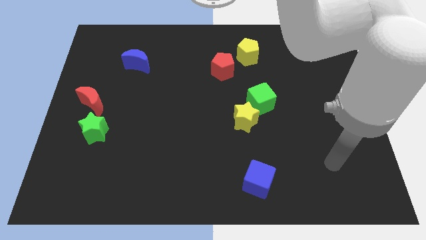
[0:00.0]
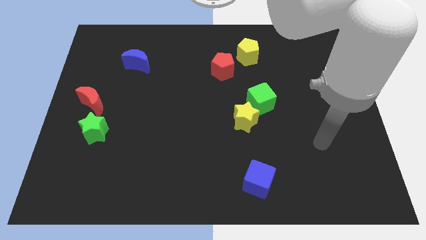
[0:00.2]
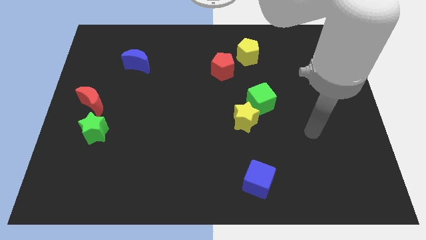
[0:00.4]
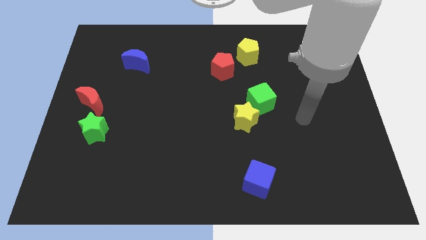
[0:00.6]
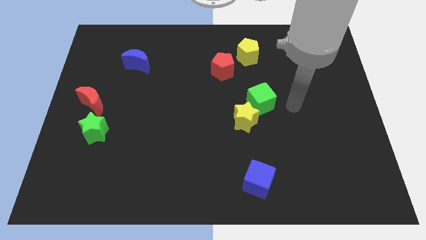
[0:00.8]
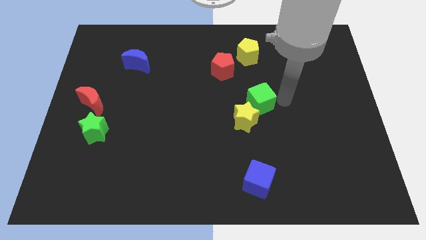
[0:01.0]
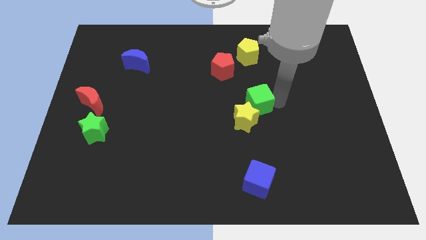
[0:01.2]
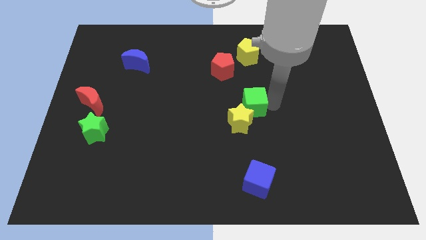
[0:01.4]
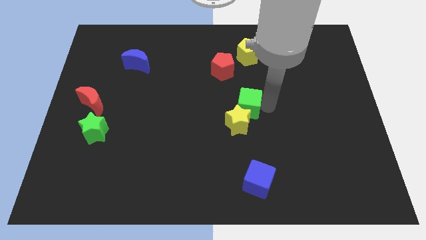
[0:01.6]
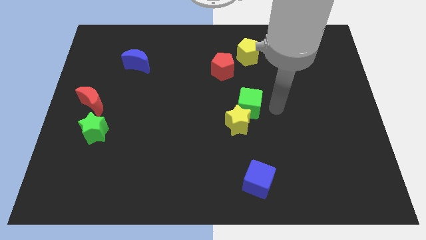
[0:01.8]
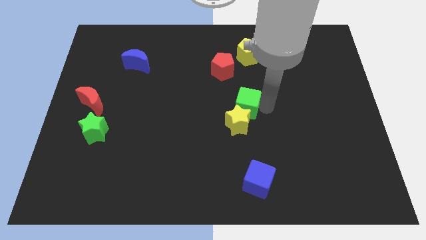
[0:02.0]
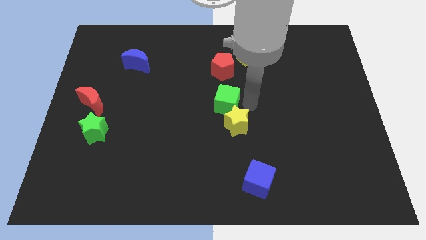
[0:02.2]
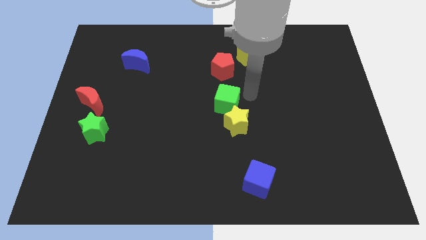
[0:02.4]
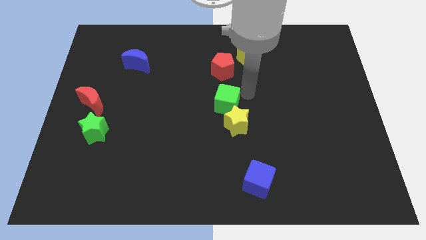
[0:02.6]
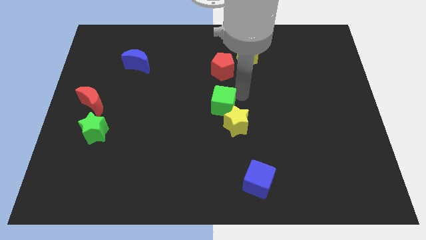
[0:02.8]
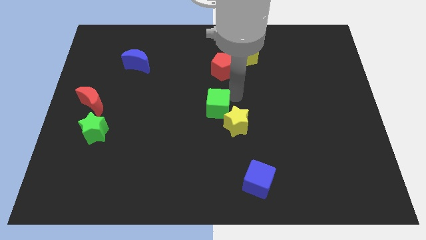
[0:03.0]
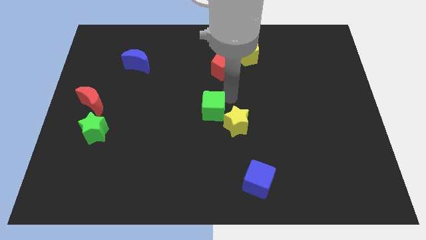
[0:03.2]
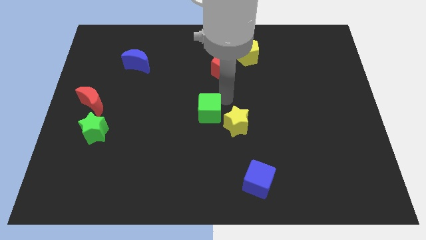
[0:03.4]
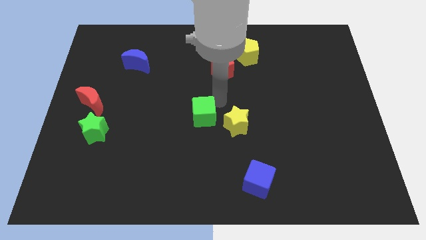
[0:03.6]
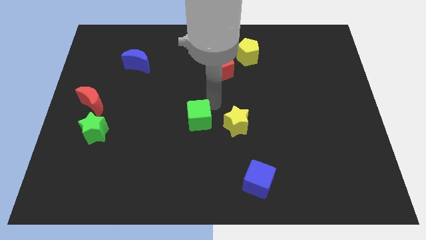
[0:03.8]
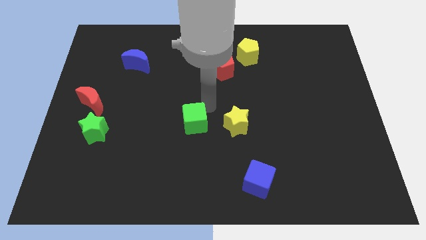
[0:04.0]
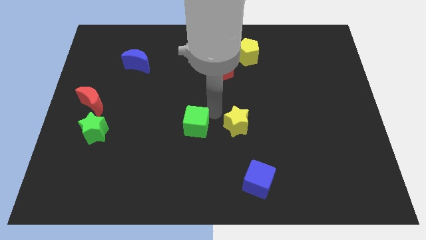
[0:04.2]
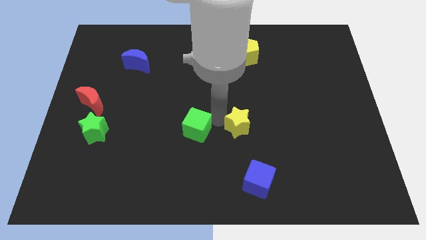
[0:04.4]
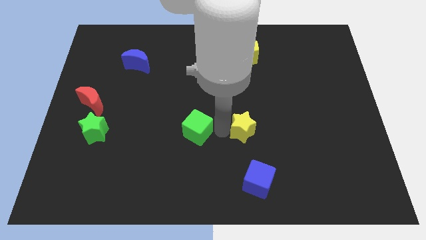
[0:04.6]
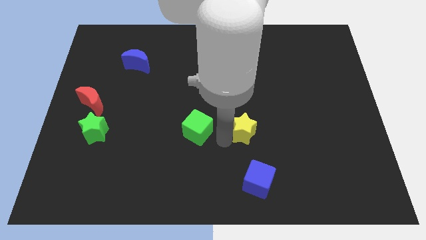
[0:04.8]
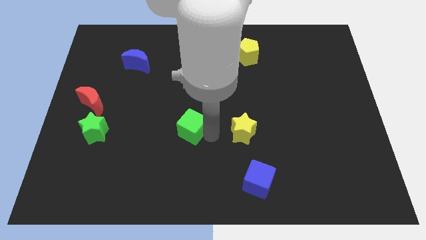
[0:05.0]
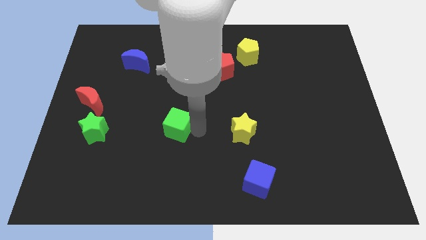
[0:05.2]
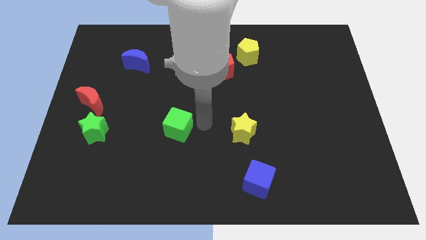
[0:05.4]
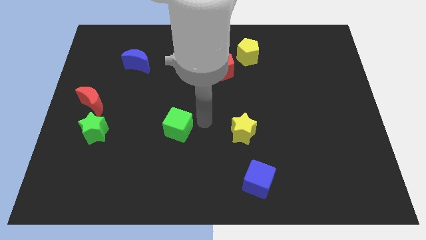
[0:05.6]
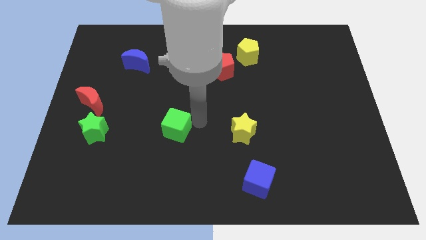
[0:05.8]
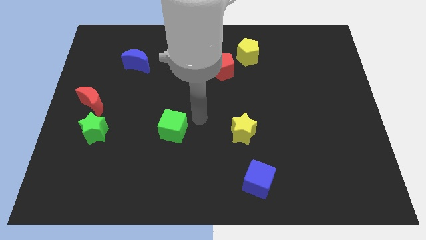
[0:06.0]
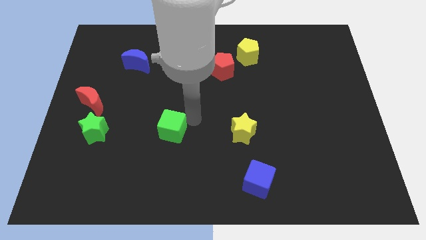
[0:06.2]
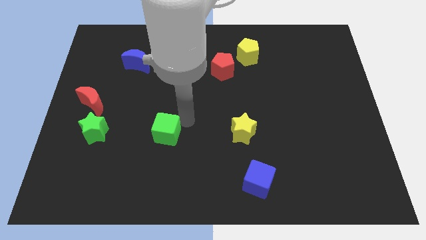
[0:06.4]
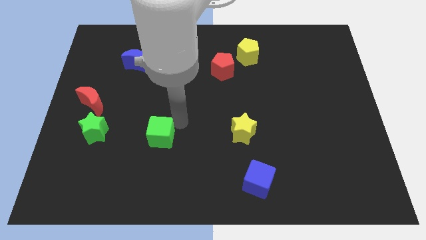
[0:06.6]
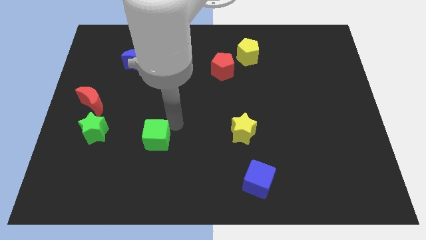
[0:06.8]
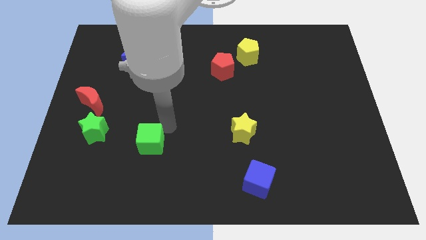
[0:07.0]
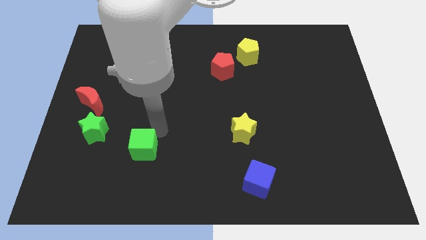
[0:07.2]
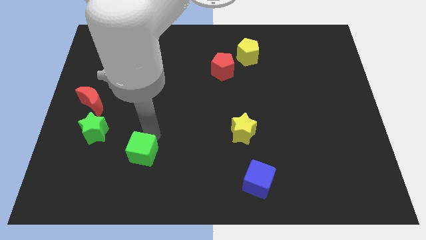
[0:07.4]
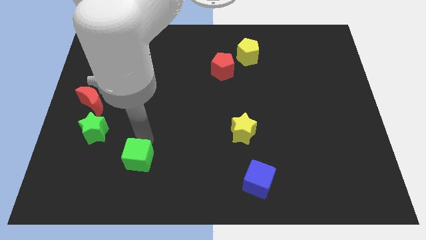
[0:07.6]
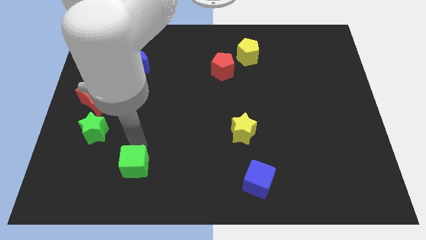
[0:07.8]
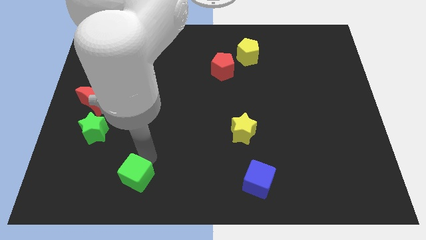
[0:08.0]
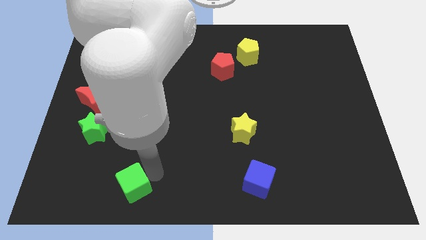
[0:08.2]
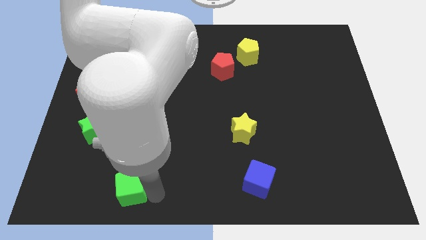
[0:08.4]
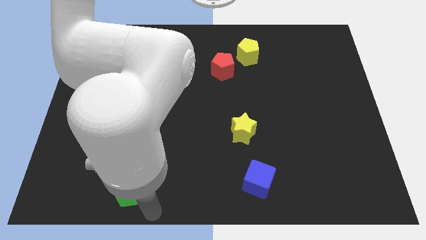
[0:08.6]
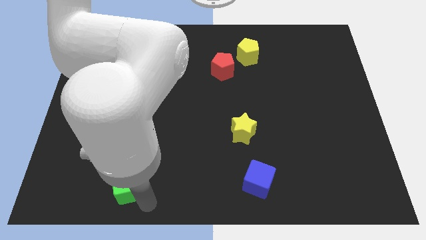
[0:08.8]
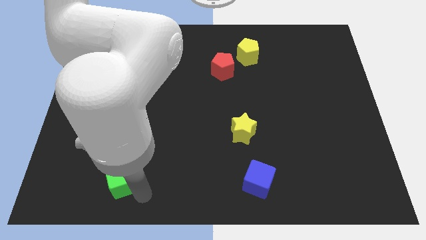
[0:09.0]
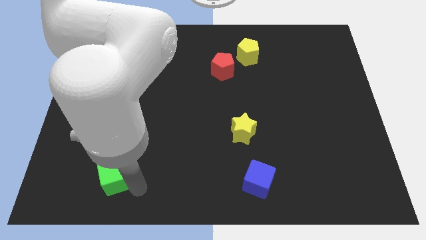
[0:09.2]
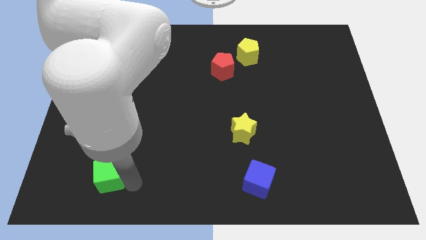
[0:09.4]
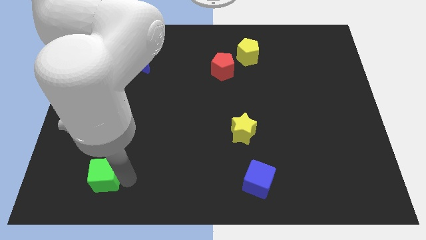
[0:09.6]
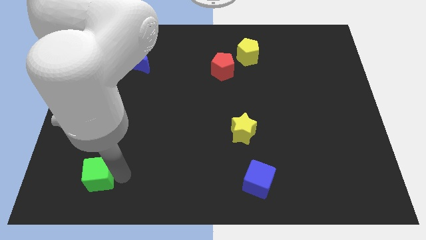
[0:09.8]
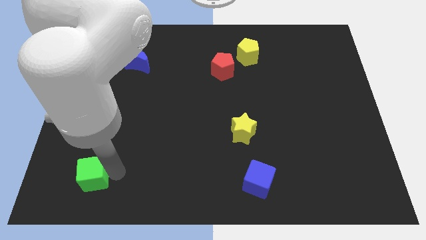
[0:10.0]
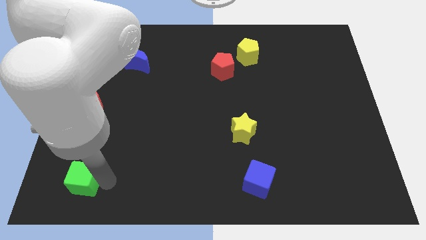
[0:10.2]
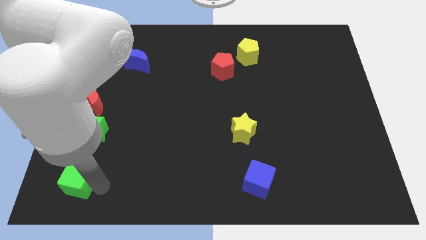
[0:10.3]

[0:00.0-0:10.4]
slide the green cube to the bottom left of the board

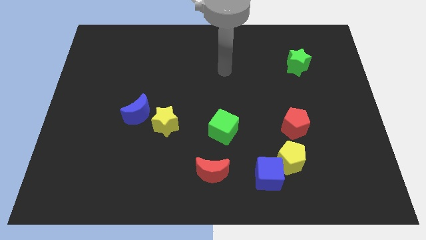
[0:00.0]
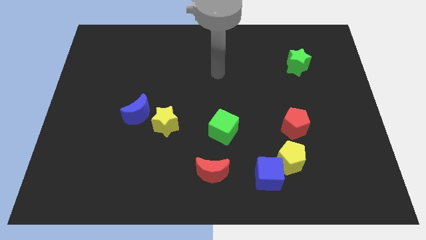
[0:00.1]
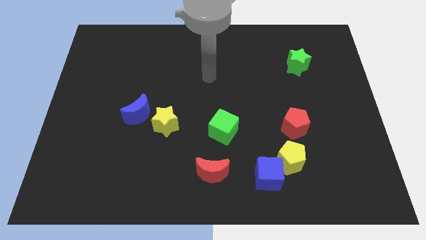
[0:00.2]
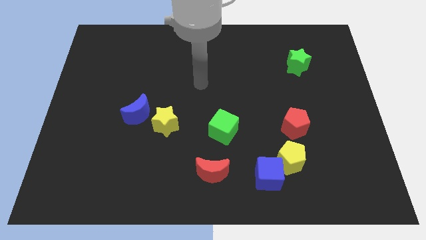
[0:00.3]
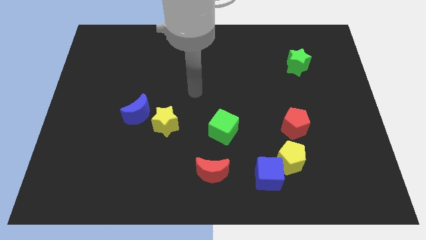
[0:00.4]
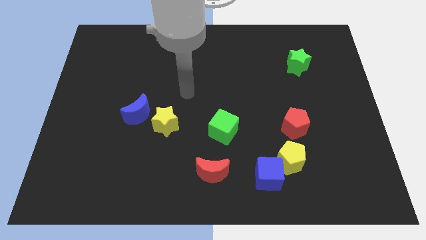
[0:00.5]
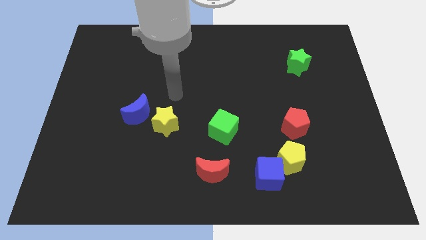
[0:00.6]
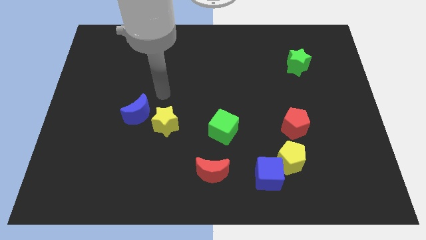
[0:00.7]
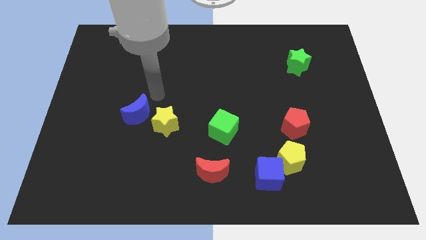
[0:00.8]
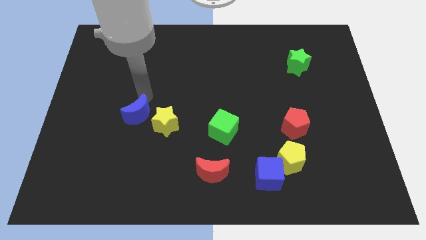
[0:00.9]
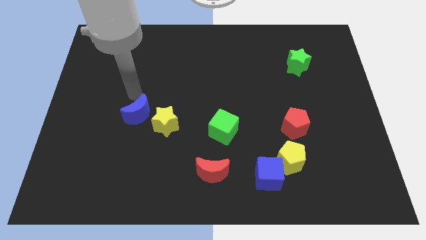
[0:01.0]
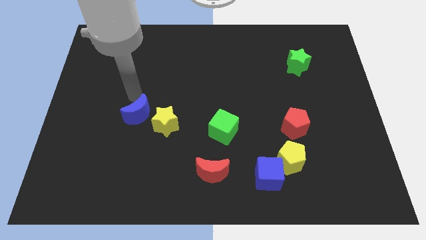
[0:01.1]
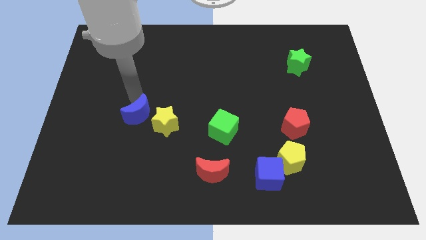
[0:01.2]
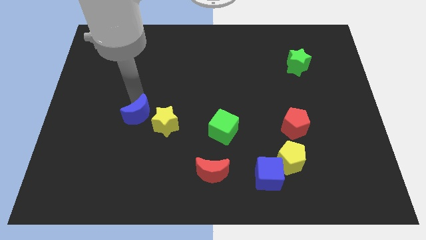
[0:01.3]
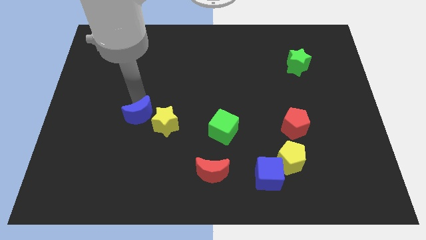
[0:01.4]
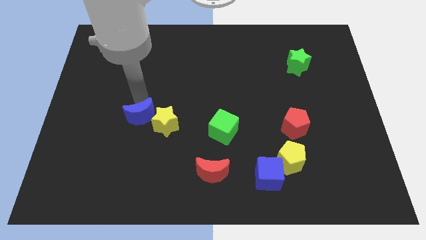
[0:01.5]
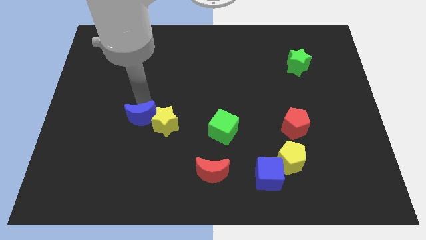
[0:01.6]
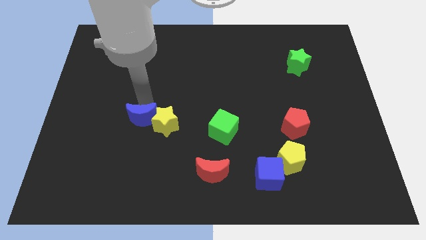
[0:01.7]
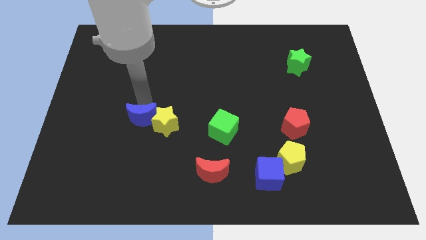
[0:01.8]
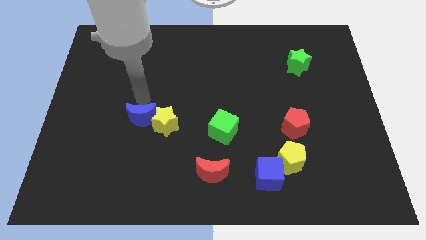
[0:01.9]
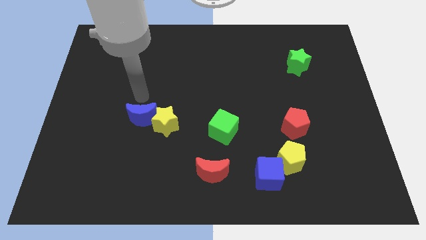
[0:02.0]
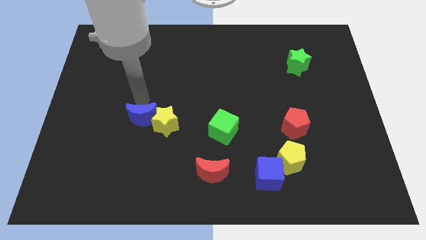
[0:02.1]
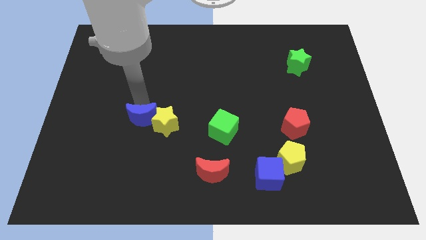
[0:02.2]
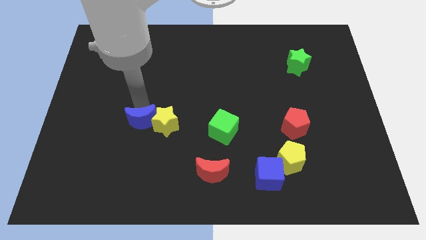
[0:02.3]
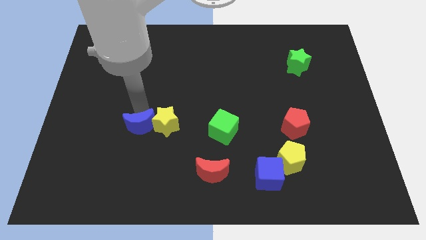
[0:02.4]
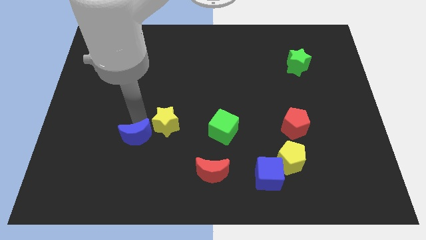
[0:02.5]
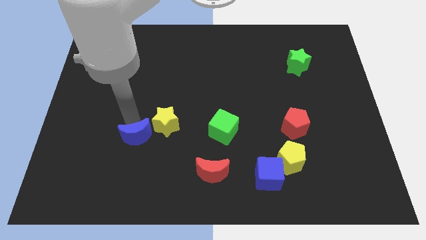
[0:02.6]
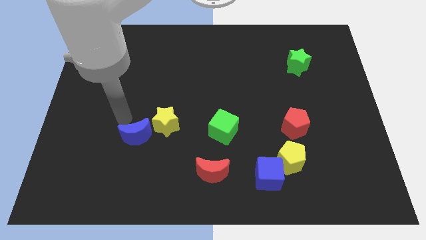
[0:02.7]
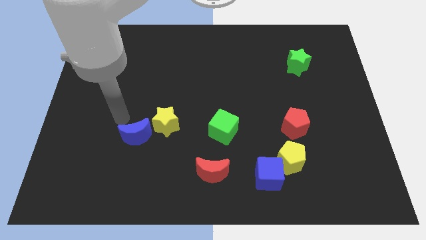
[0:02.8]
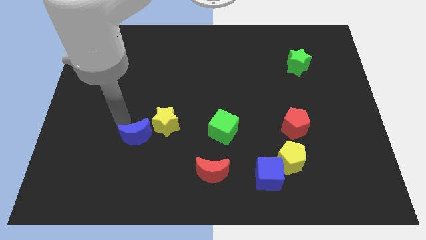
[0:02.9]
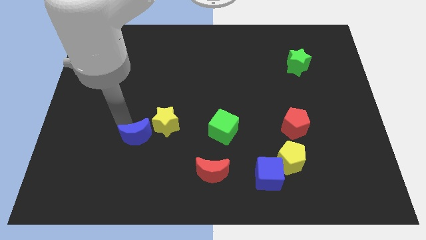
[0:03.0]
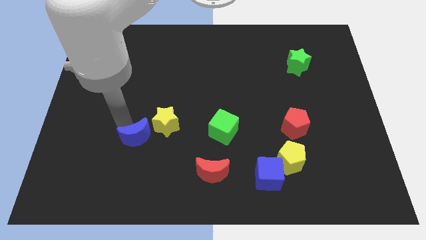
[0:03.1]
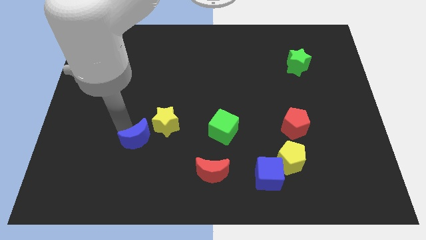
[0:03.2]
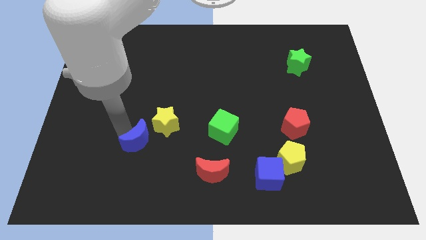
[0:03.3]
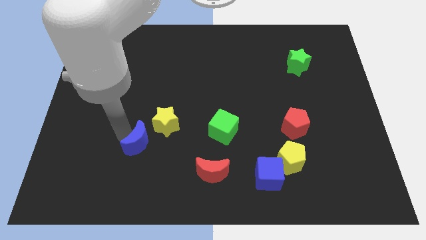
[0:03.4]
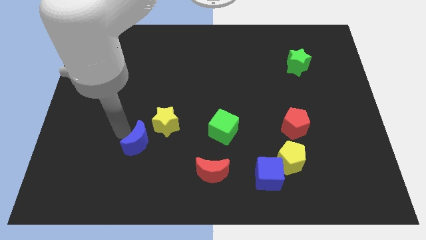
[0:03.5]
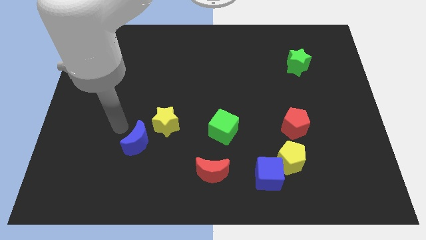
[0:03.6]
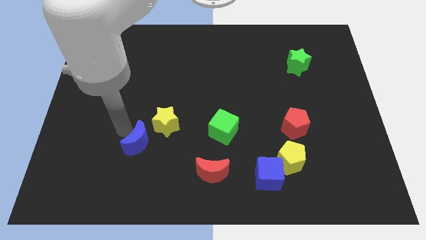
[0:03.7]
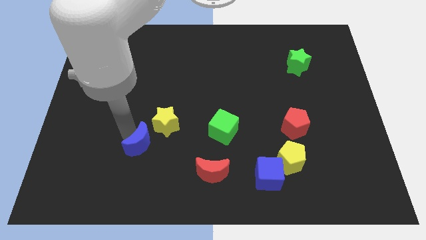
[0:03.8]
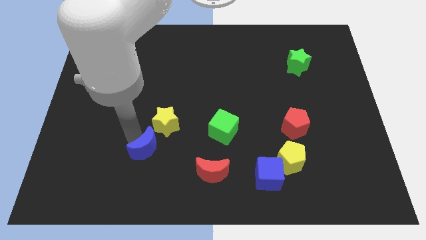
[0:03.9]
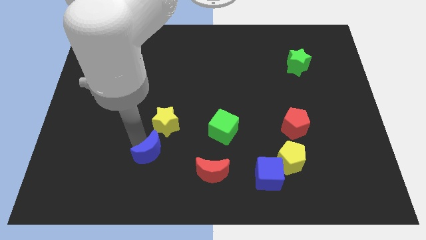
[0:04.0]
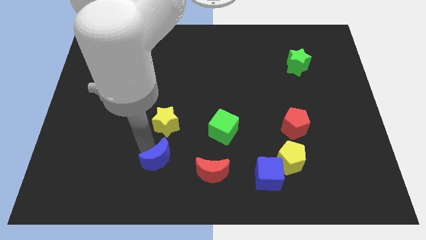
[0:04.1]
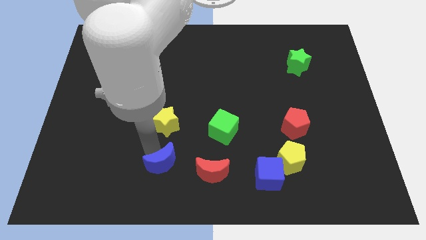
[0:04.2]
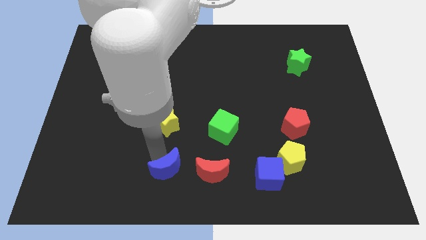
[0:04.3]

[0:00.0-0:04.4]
move the blue moon to the bottom side
